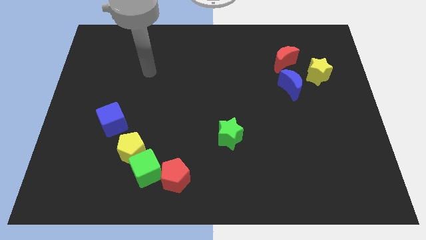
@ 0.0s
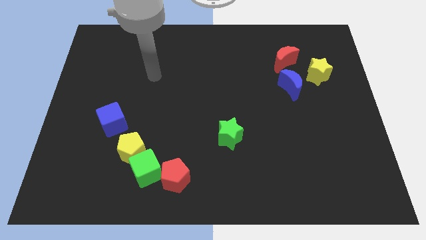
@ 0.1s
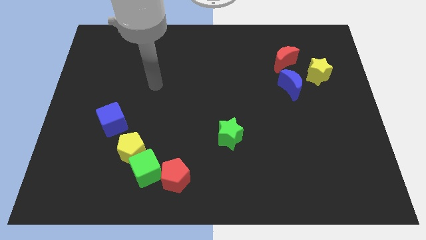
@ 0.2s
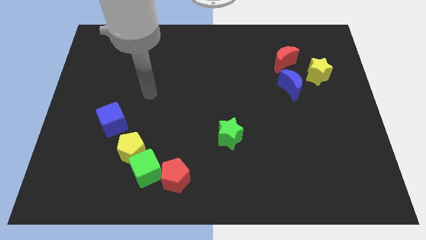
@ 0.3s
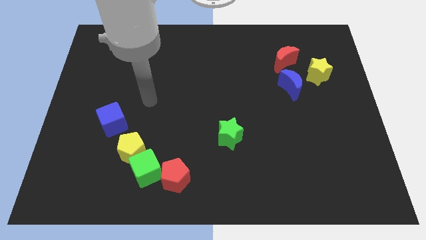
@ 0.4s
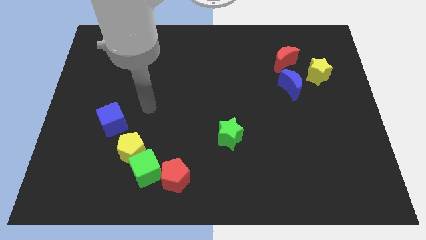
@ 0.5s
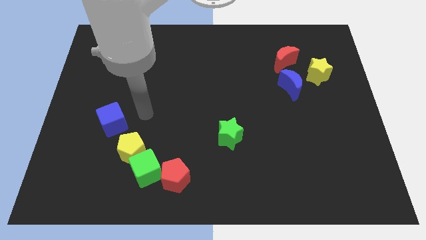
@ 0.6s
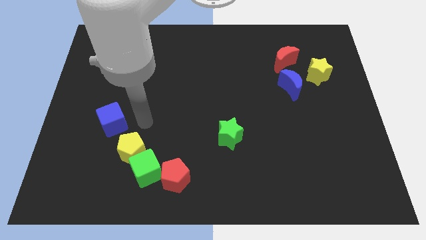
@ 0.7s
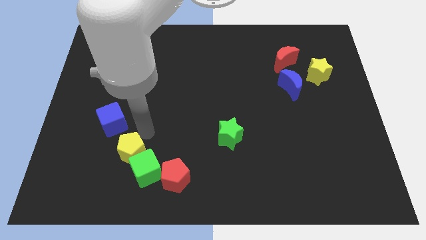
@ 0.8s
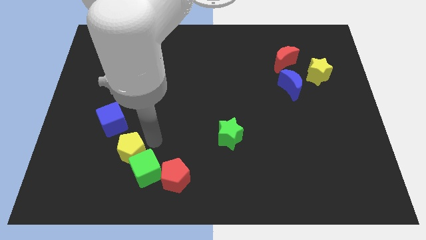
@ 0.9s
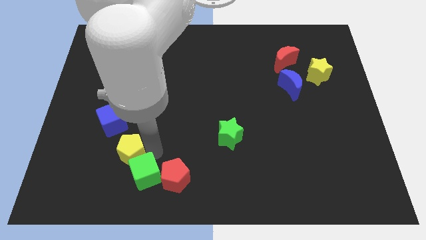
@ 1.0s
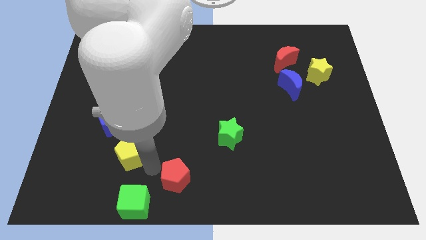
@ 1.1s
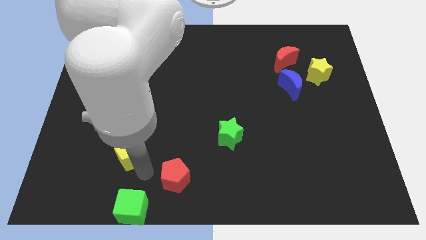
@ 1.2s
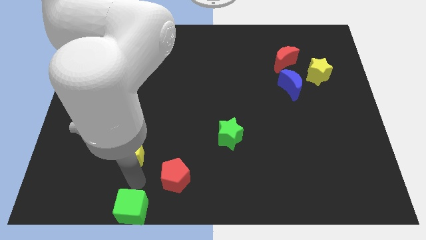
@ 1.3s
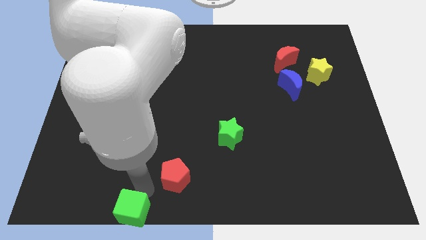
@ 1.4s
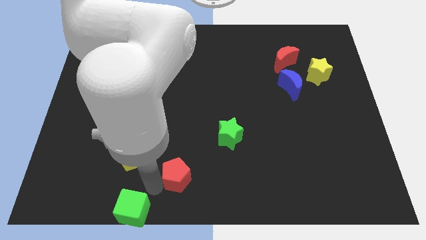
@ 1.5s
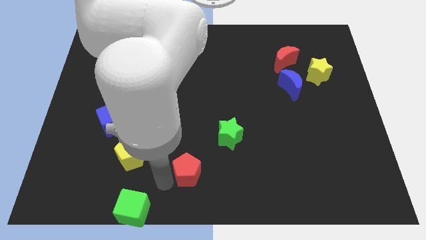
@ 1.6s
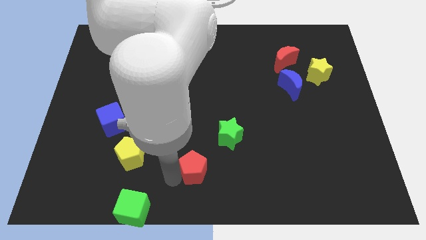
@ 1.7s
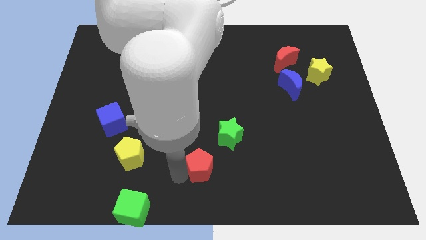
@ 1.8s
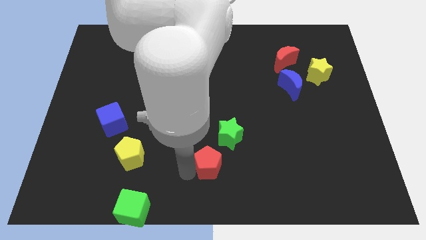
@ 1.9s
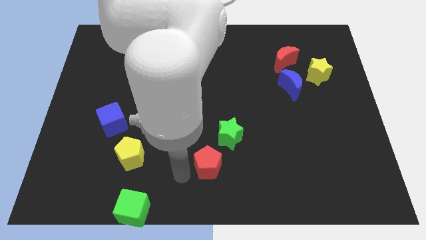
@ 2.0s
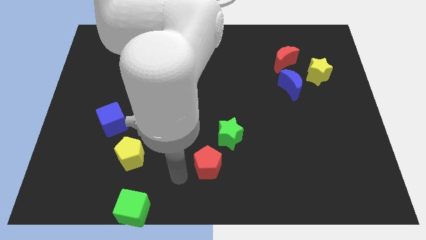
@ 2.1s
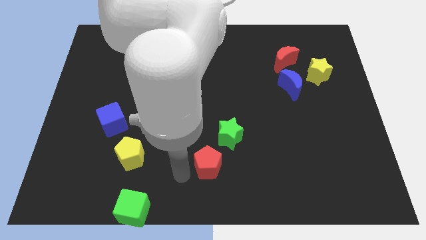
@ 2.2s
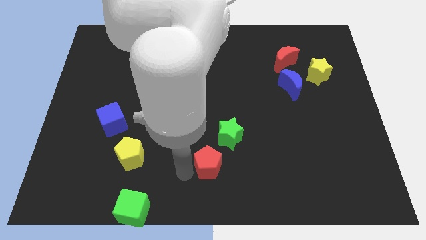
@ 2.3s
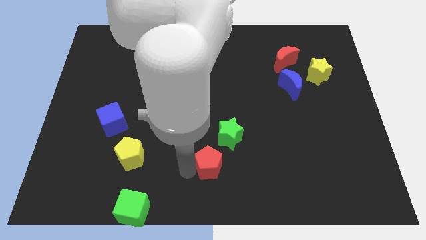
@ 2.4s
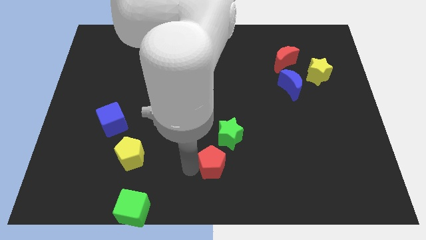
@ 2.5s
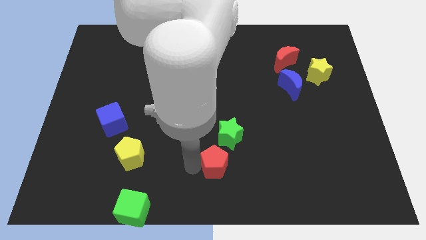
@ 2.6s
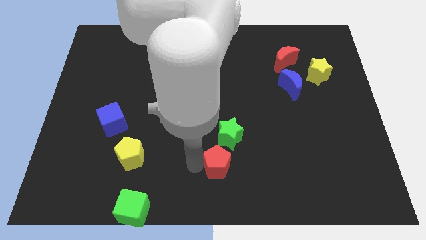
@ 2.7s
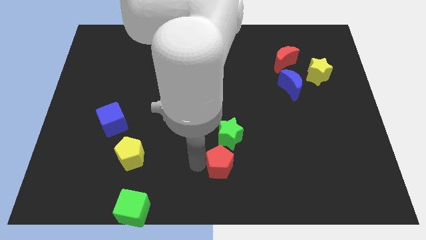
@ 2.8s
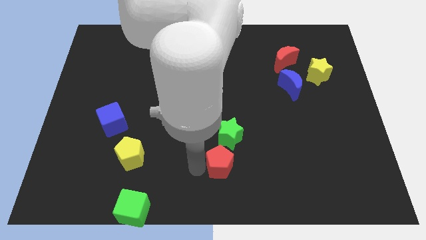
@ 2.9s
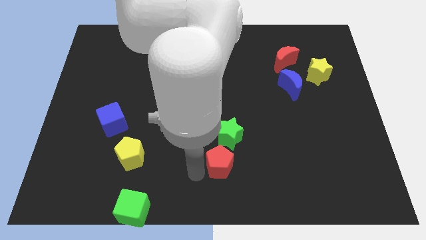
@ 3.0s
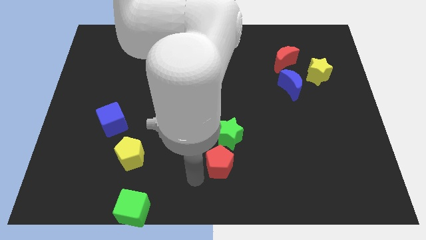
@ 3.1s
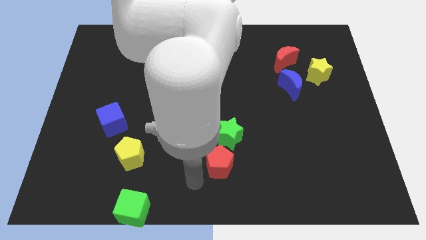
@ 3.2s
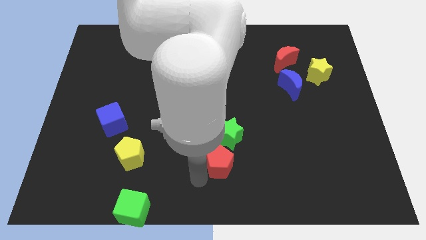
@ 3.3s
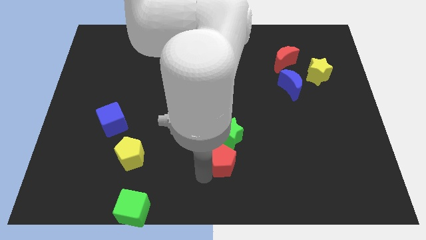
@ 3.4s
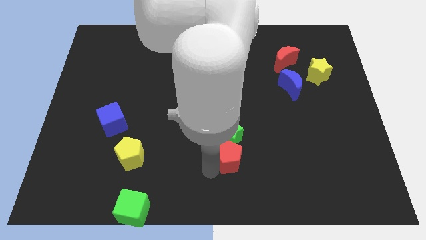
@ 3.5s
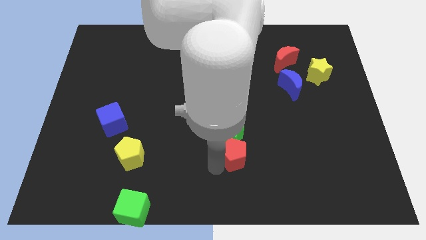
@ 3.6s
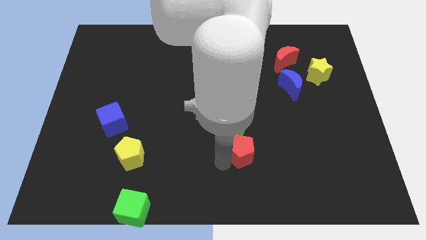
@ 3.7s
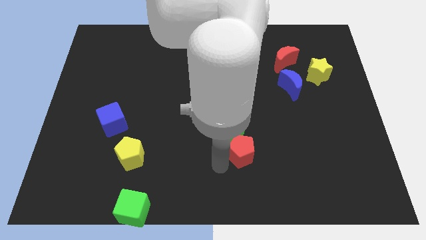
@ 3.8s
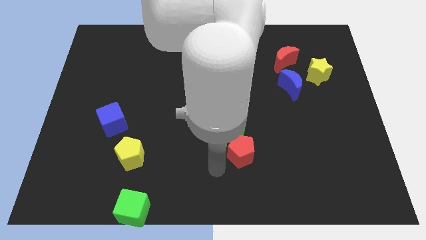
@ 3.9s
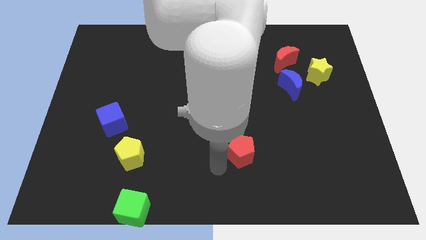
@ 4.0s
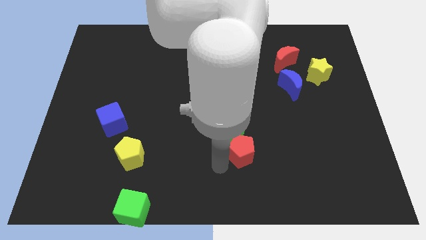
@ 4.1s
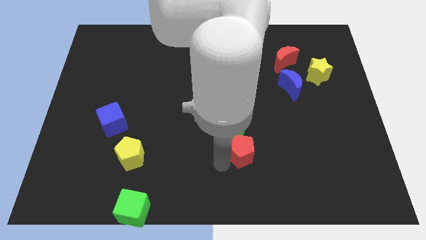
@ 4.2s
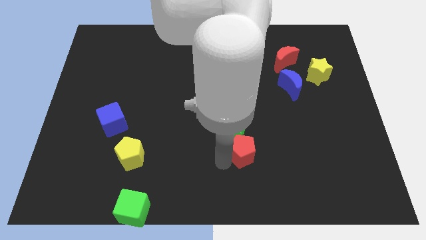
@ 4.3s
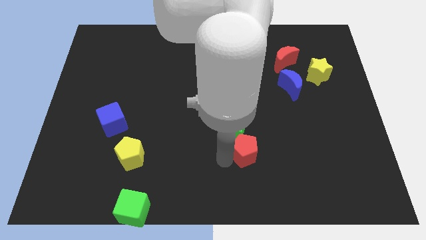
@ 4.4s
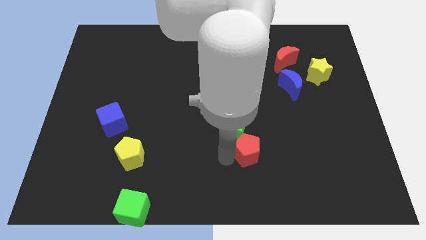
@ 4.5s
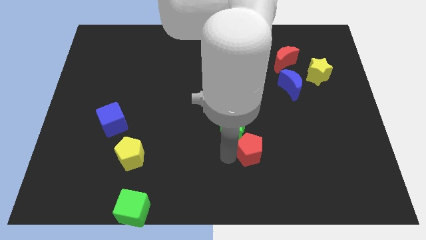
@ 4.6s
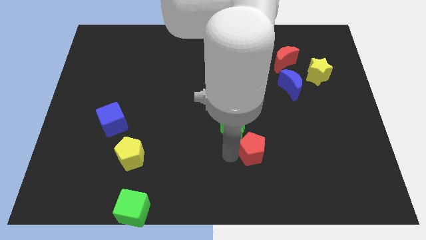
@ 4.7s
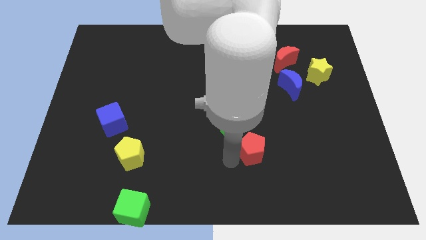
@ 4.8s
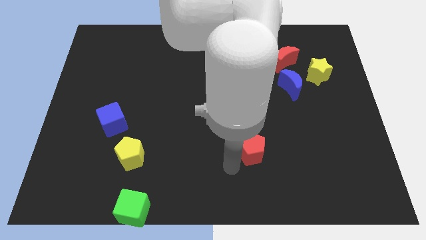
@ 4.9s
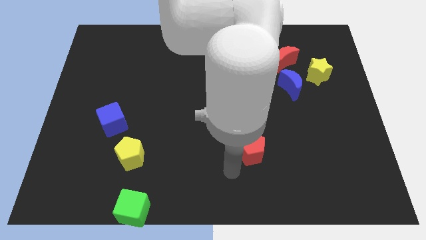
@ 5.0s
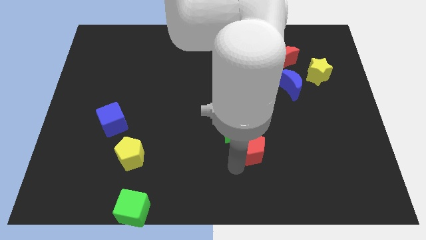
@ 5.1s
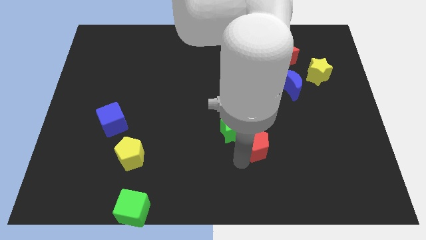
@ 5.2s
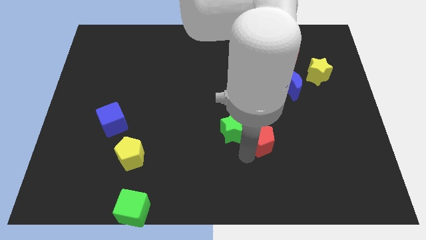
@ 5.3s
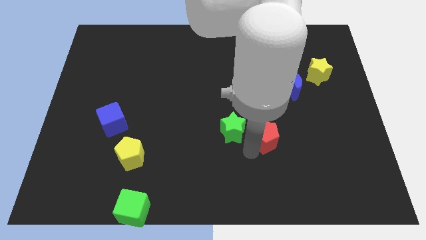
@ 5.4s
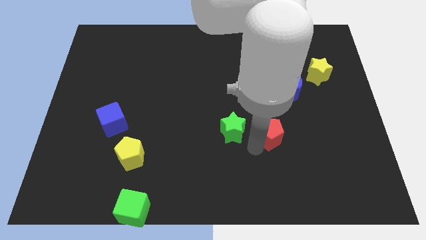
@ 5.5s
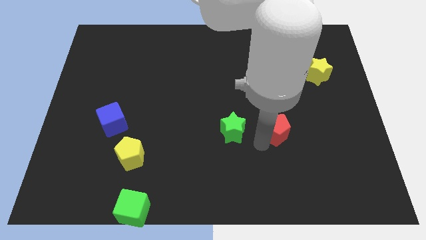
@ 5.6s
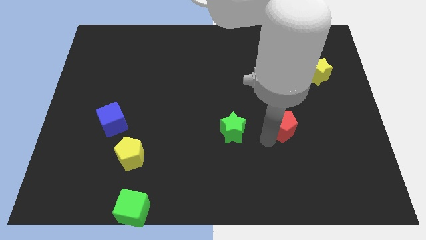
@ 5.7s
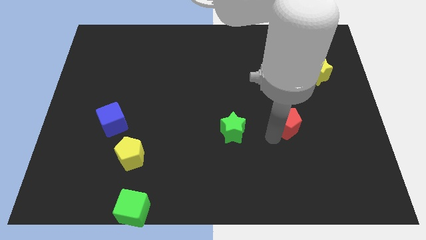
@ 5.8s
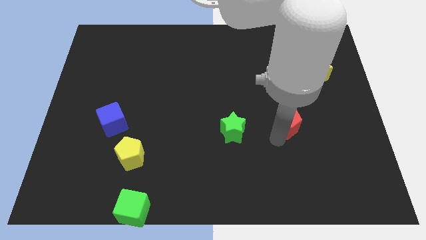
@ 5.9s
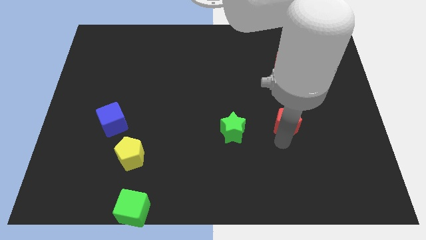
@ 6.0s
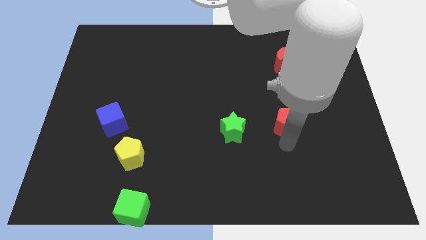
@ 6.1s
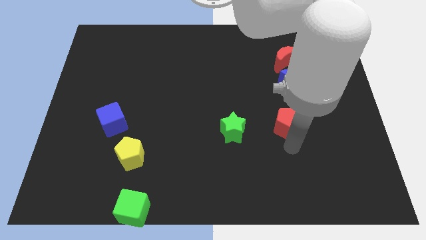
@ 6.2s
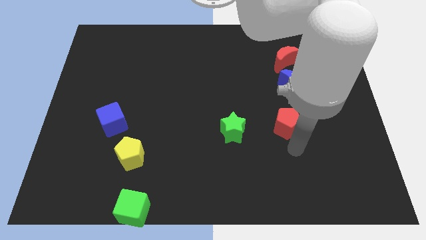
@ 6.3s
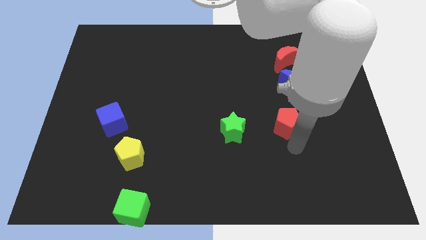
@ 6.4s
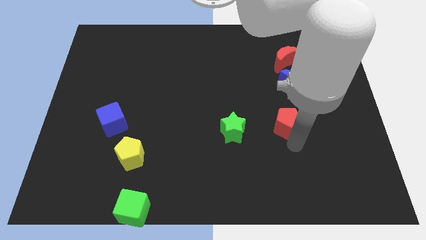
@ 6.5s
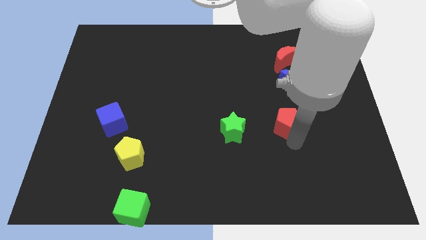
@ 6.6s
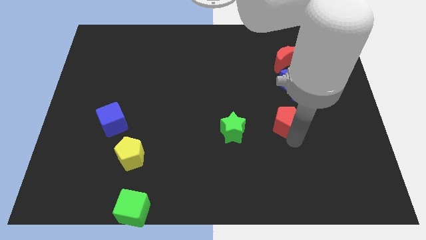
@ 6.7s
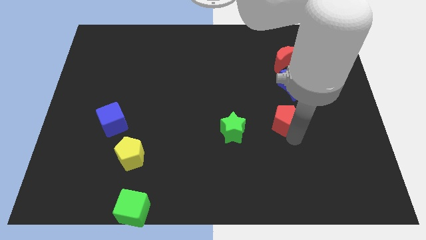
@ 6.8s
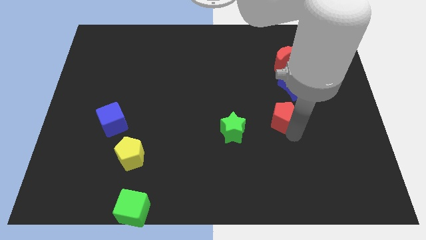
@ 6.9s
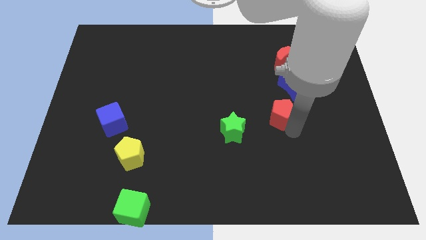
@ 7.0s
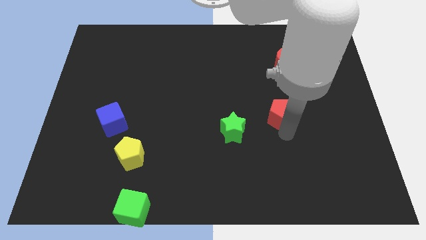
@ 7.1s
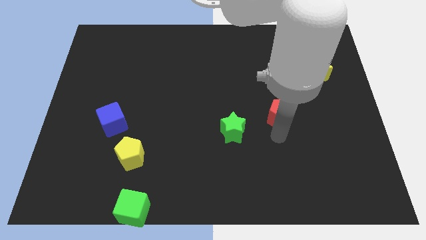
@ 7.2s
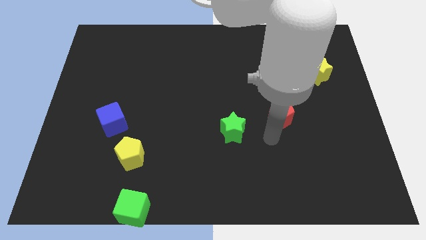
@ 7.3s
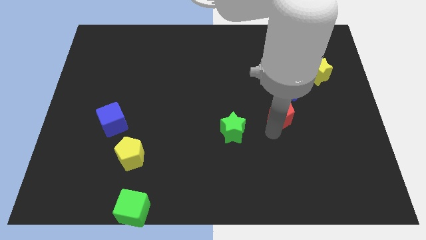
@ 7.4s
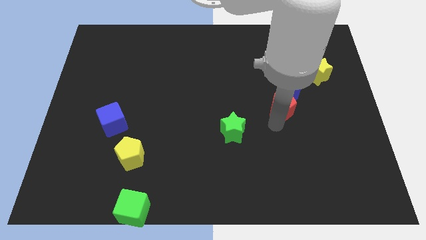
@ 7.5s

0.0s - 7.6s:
push the red pentagon below the red moon
